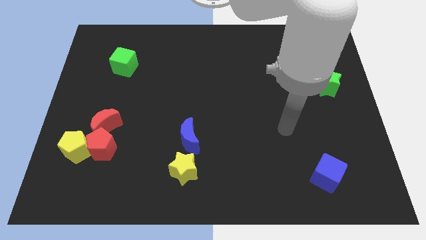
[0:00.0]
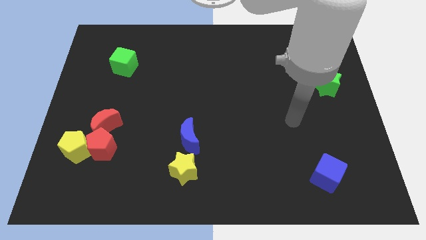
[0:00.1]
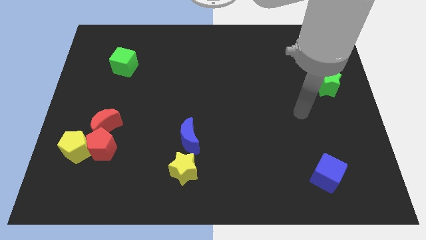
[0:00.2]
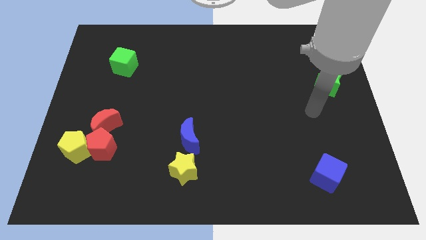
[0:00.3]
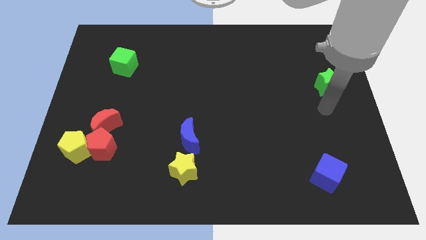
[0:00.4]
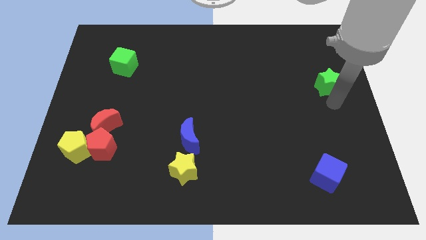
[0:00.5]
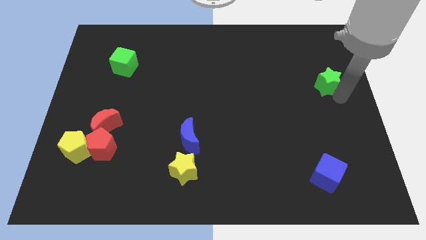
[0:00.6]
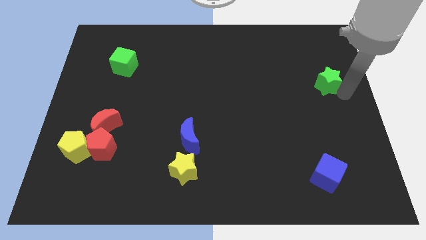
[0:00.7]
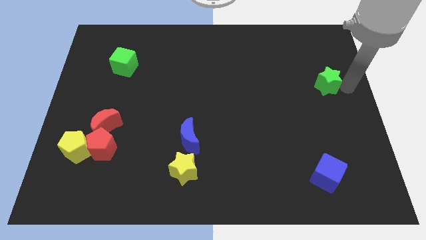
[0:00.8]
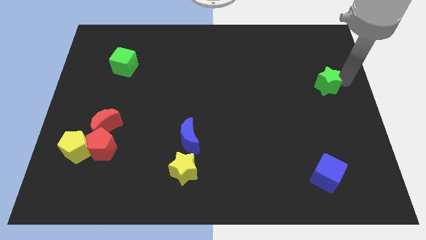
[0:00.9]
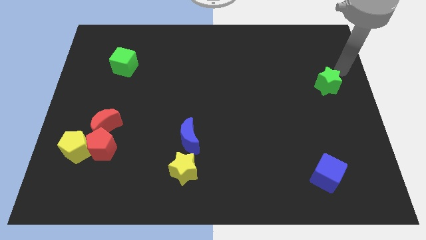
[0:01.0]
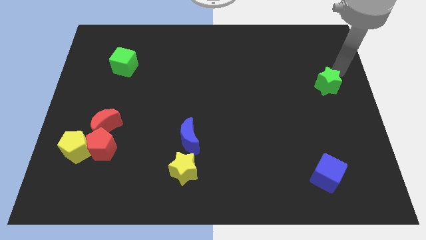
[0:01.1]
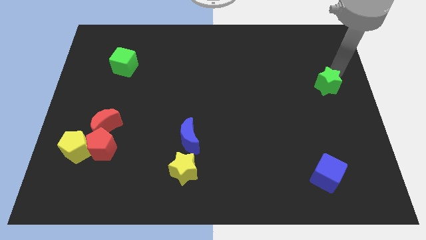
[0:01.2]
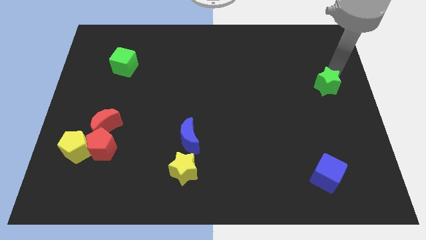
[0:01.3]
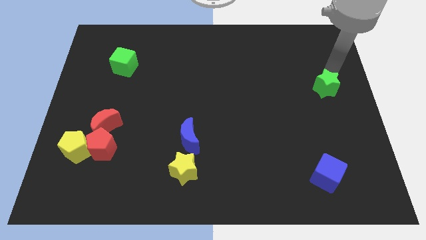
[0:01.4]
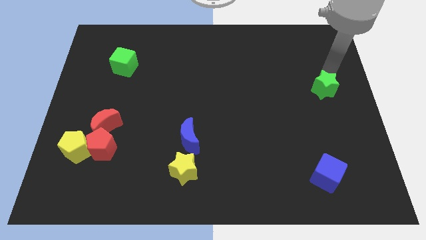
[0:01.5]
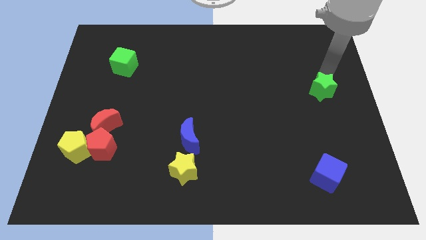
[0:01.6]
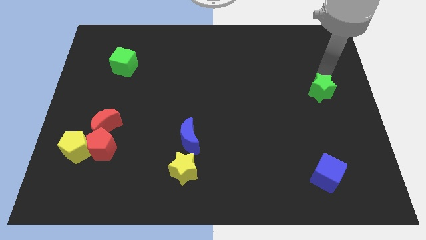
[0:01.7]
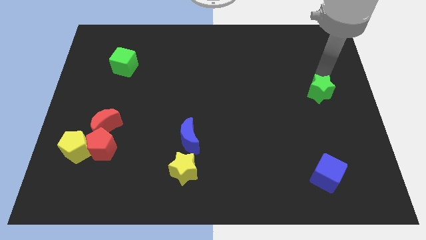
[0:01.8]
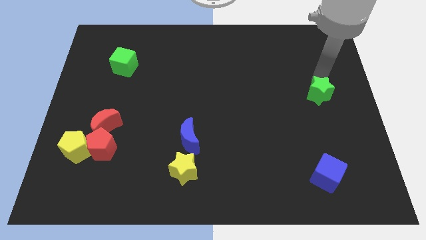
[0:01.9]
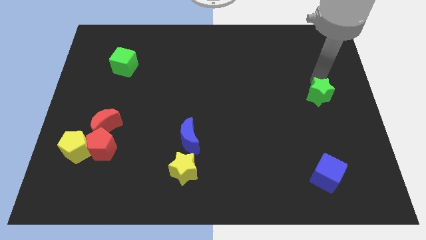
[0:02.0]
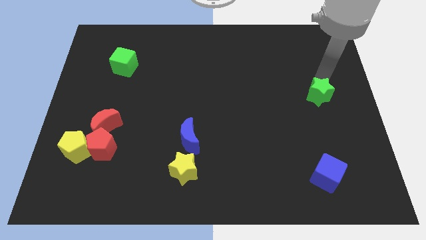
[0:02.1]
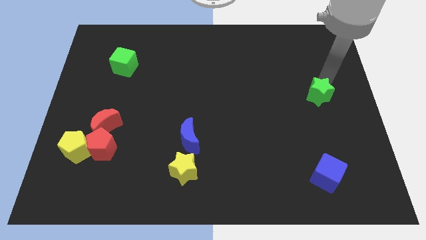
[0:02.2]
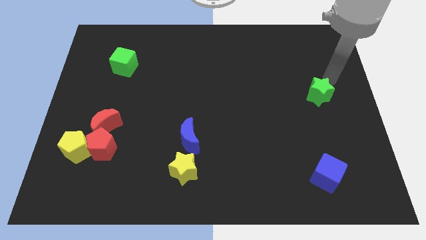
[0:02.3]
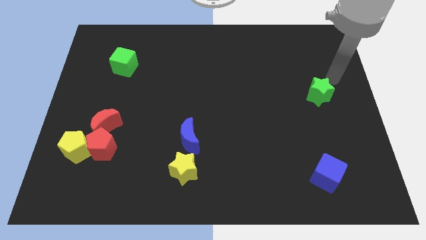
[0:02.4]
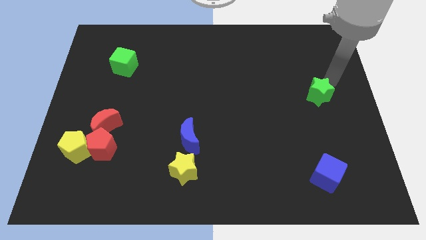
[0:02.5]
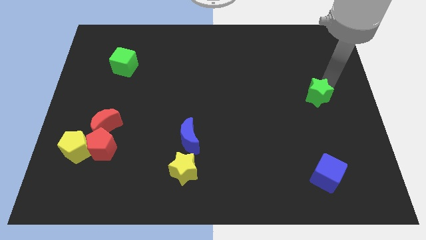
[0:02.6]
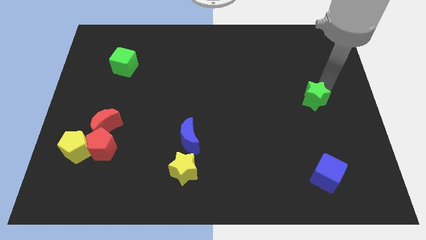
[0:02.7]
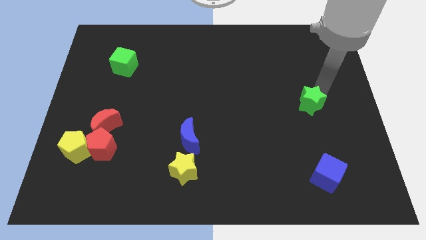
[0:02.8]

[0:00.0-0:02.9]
slide the green star a little bit down and left

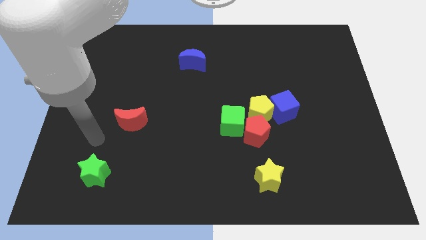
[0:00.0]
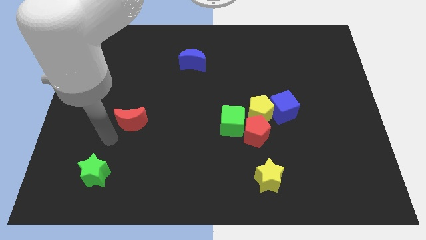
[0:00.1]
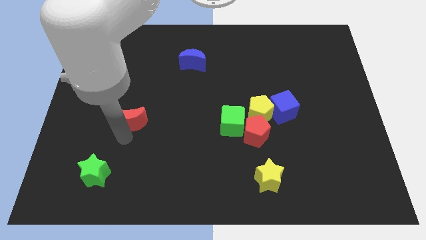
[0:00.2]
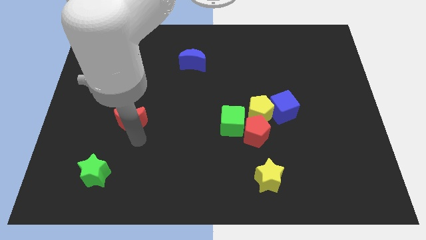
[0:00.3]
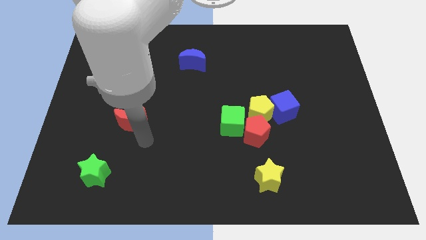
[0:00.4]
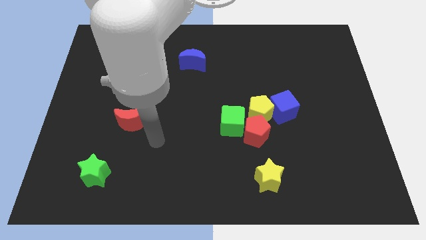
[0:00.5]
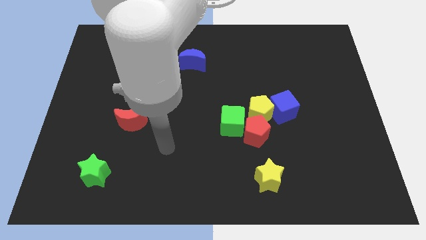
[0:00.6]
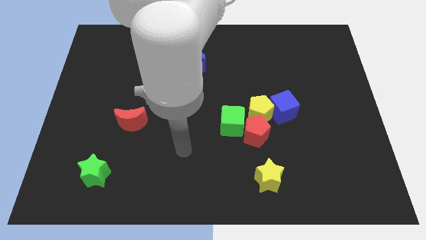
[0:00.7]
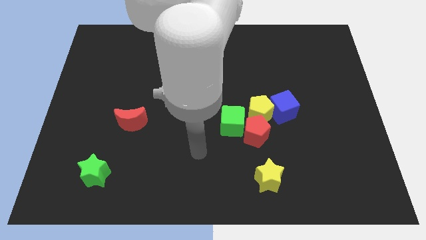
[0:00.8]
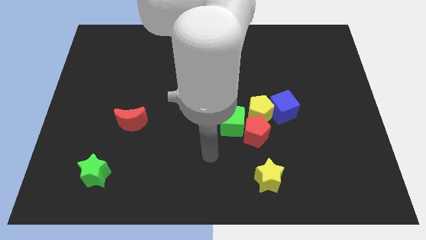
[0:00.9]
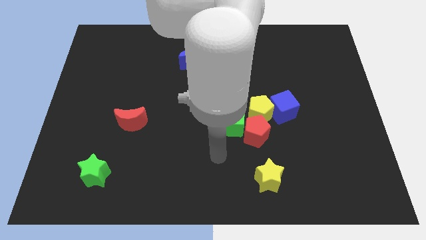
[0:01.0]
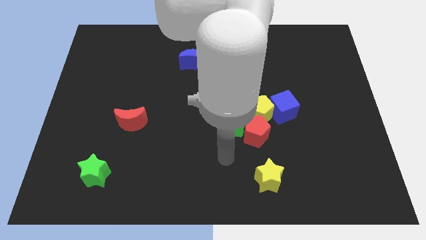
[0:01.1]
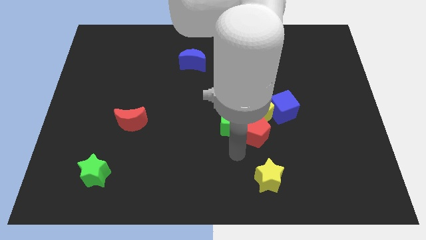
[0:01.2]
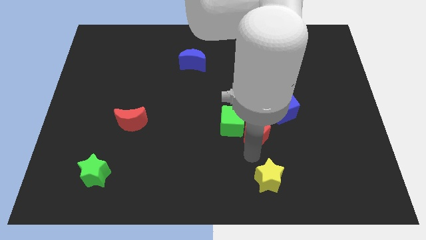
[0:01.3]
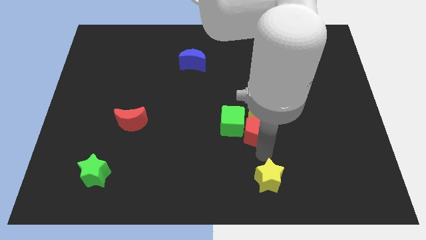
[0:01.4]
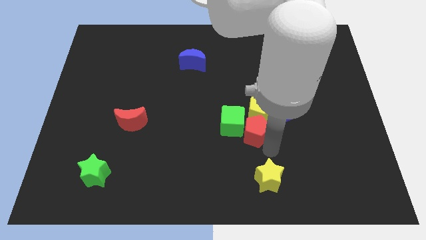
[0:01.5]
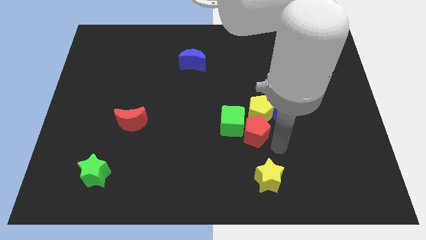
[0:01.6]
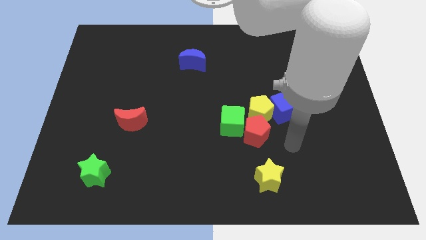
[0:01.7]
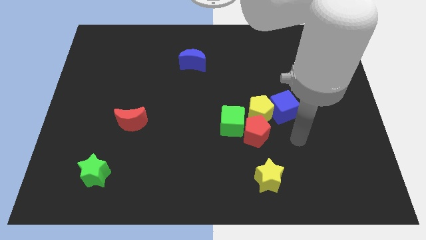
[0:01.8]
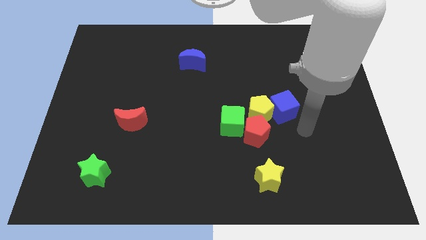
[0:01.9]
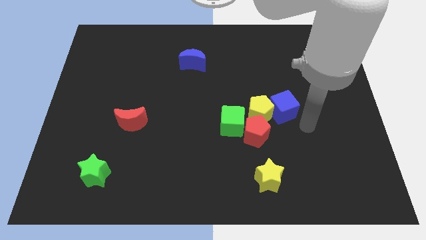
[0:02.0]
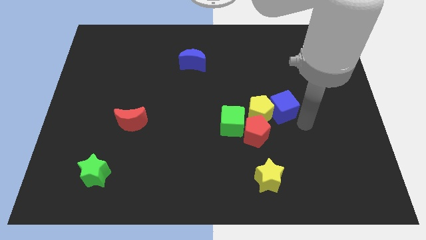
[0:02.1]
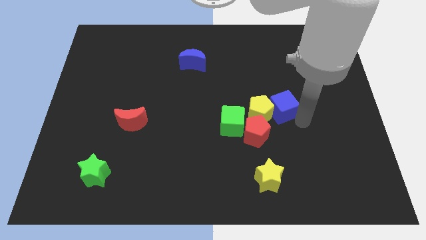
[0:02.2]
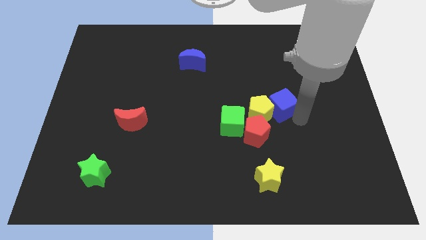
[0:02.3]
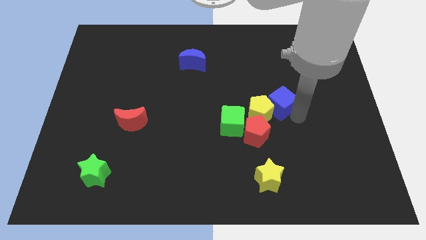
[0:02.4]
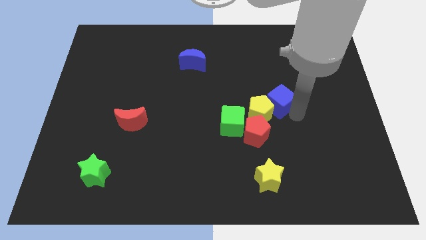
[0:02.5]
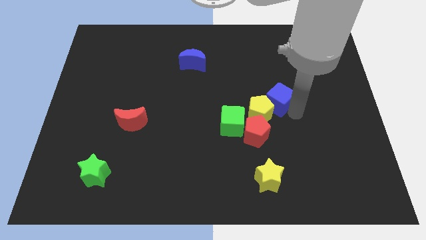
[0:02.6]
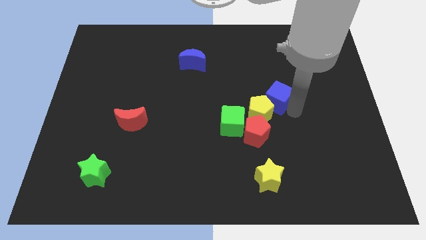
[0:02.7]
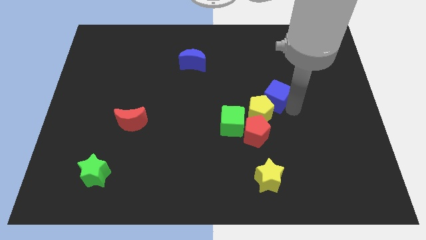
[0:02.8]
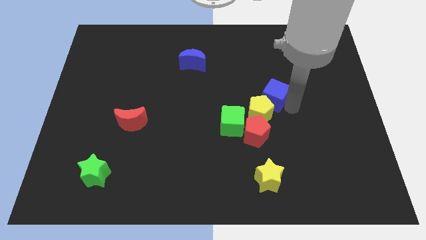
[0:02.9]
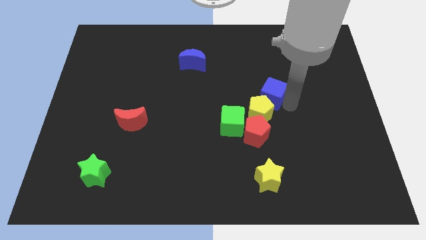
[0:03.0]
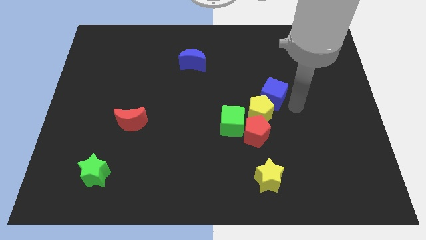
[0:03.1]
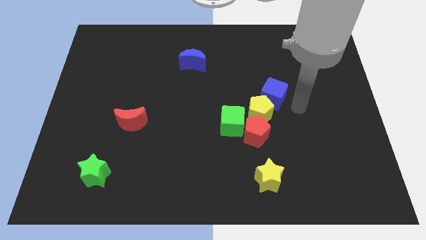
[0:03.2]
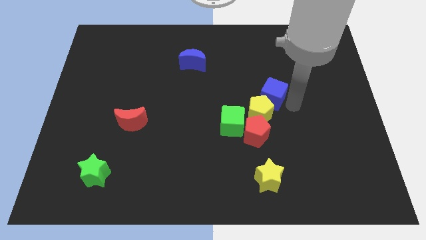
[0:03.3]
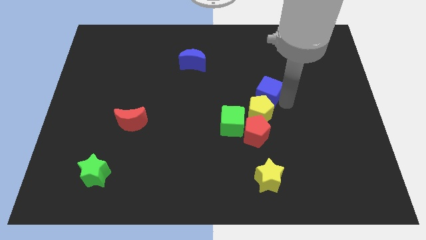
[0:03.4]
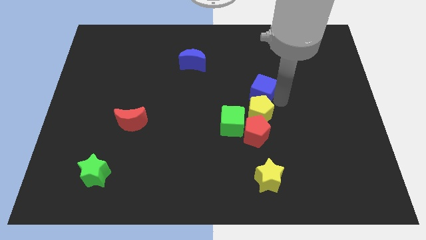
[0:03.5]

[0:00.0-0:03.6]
slightly push the blue cube diagonally up and left

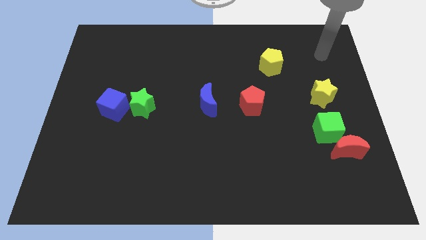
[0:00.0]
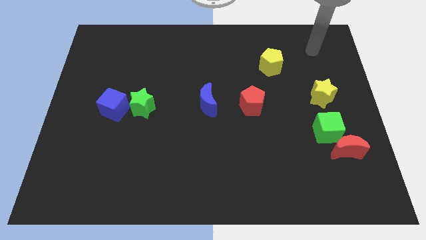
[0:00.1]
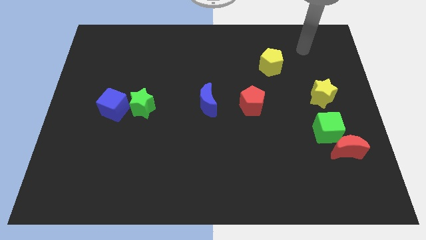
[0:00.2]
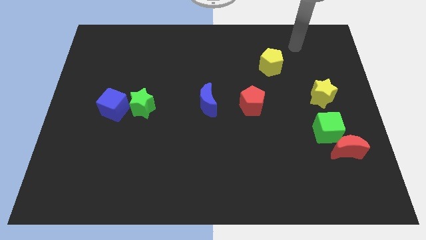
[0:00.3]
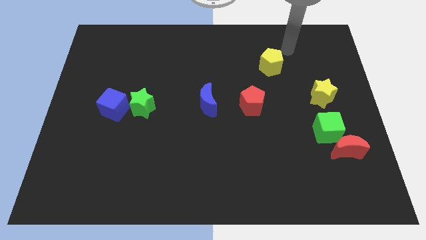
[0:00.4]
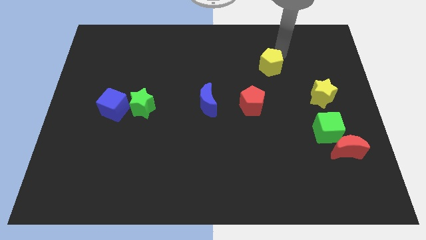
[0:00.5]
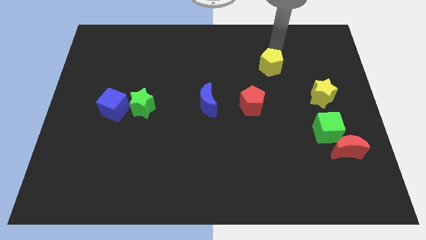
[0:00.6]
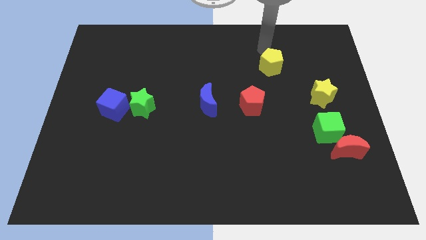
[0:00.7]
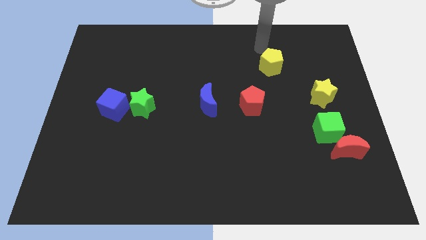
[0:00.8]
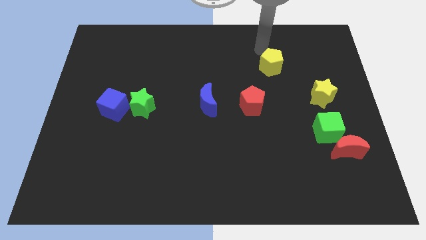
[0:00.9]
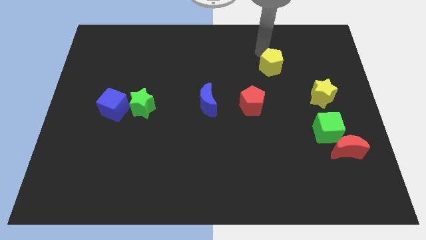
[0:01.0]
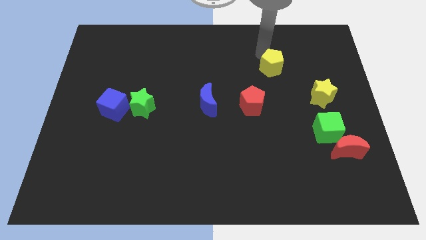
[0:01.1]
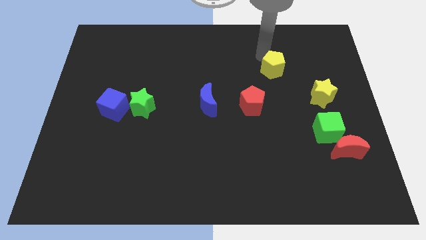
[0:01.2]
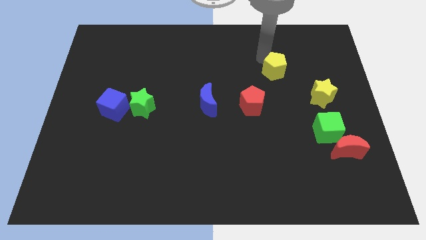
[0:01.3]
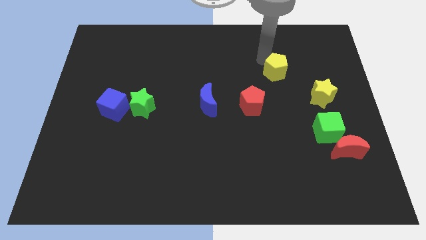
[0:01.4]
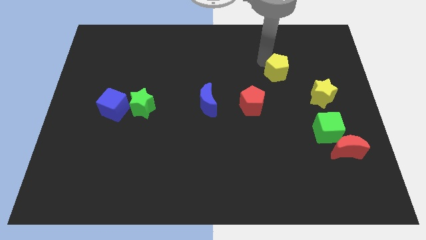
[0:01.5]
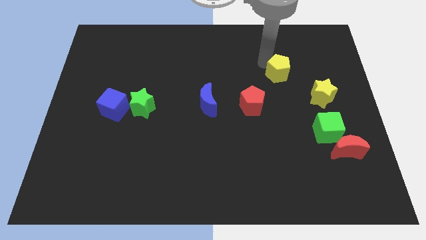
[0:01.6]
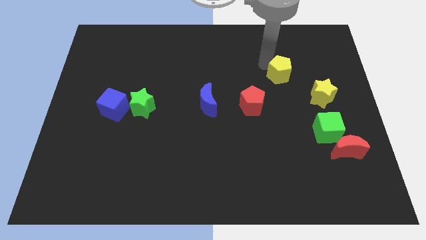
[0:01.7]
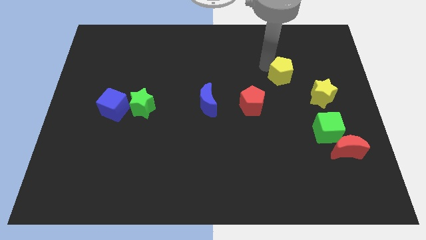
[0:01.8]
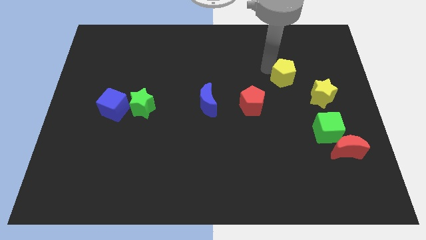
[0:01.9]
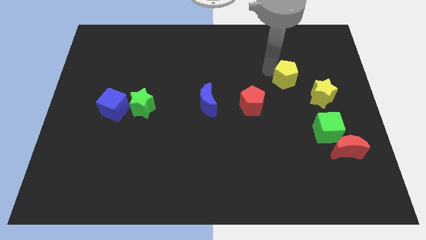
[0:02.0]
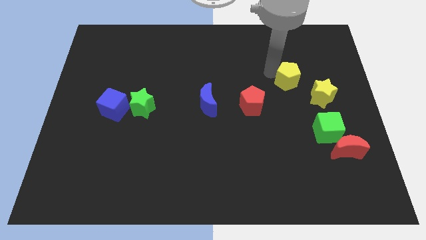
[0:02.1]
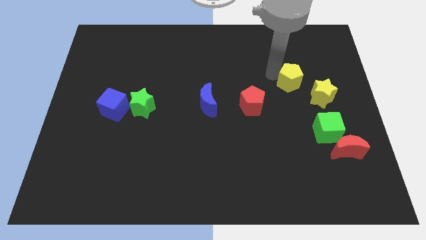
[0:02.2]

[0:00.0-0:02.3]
push the yellow pentagon somewhat downwards and to the right
